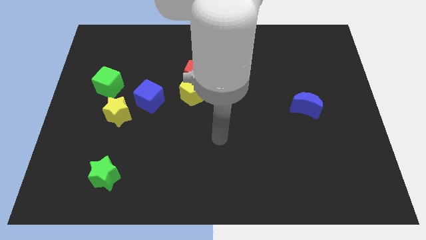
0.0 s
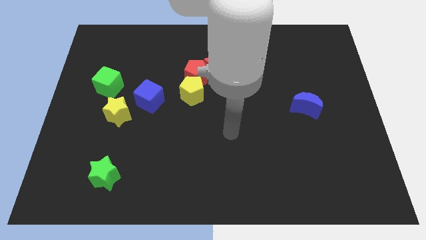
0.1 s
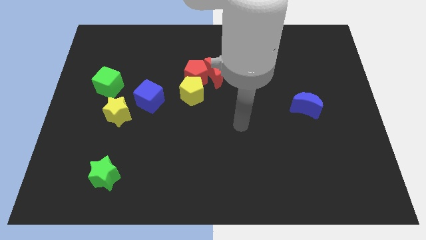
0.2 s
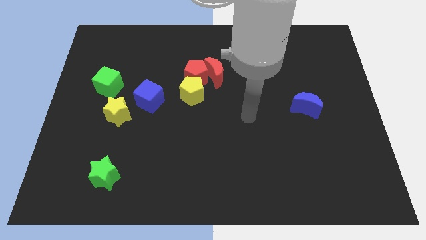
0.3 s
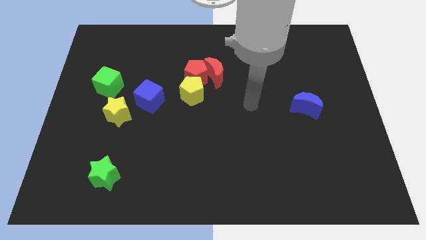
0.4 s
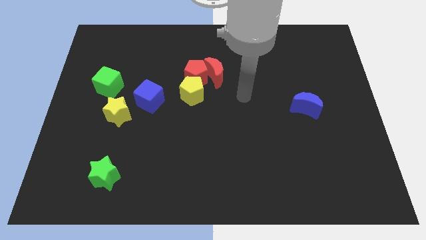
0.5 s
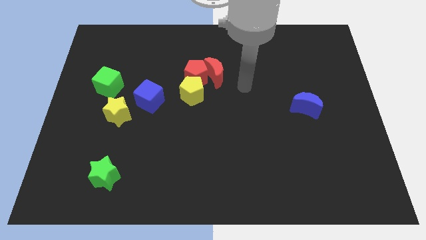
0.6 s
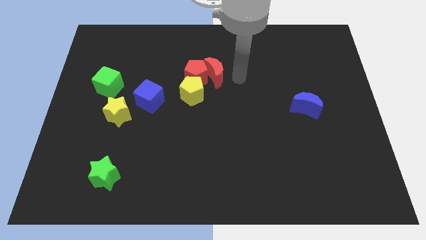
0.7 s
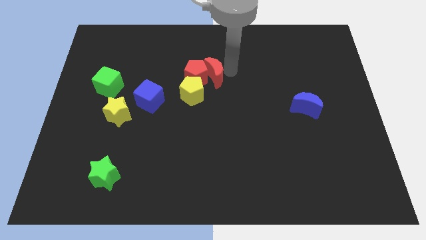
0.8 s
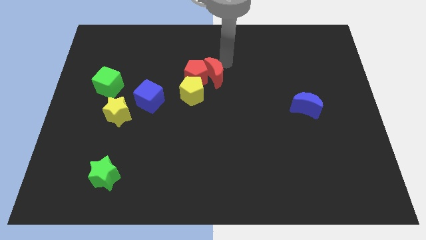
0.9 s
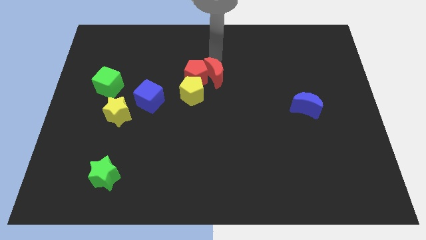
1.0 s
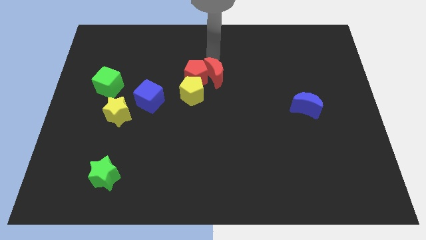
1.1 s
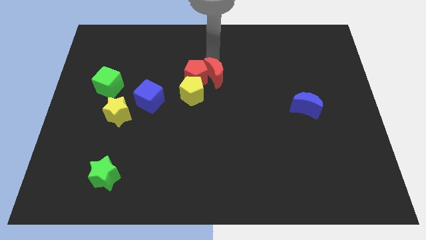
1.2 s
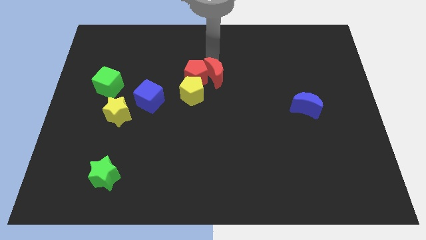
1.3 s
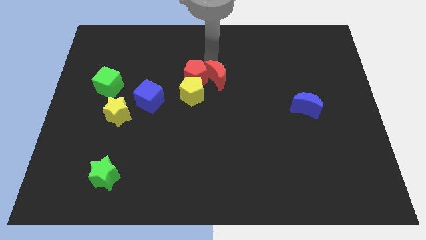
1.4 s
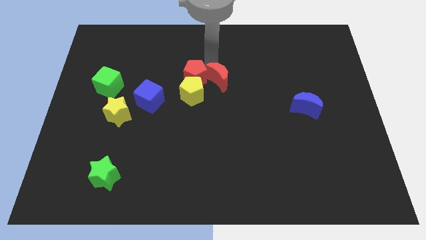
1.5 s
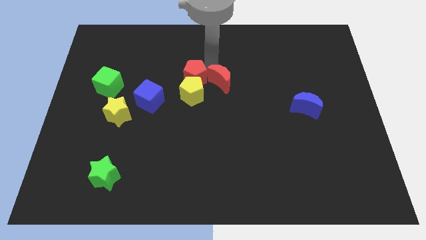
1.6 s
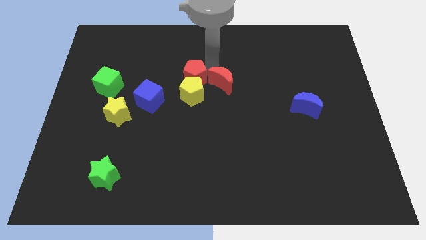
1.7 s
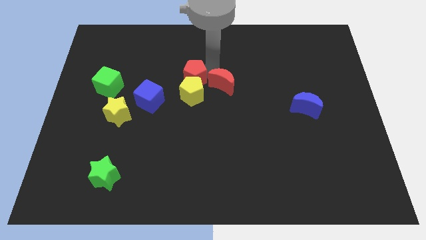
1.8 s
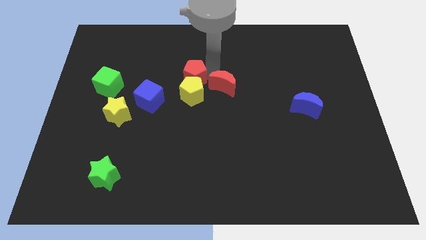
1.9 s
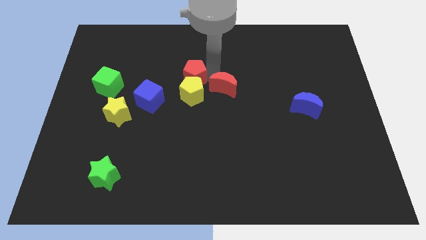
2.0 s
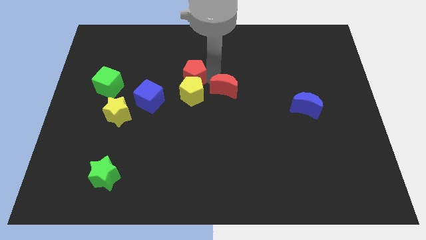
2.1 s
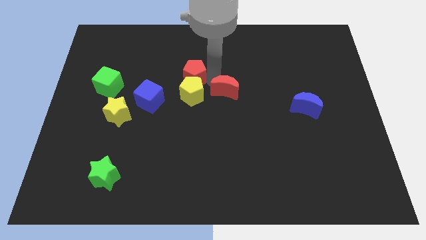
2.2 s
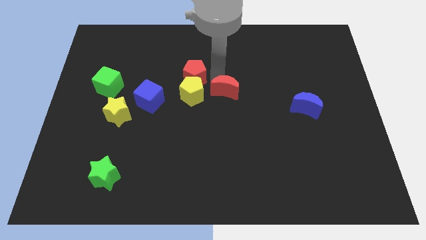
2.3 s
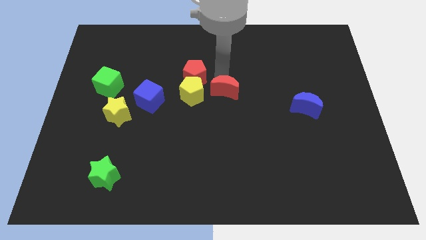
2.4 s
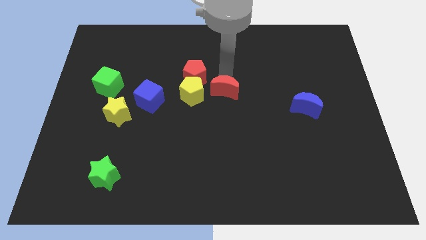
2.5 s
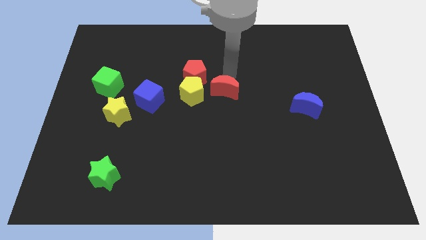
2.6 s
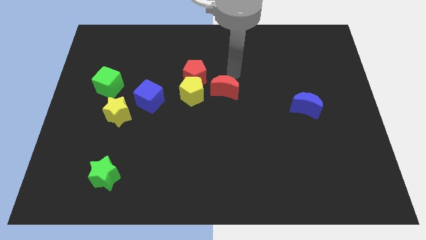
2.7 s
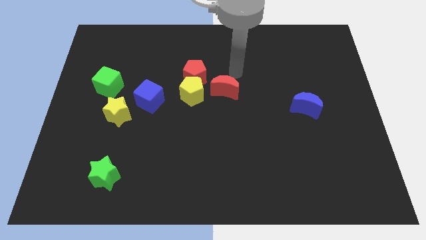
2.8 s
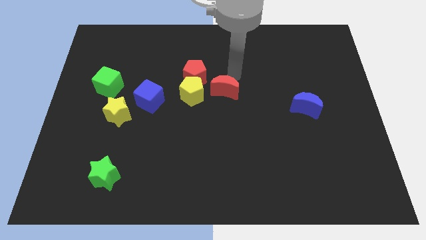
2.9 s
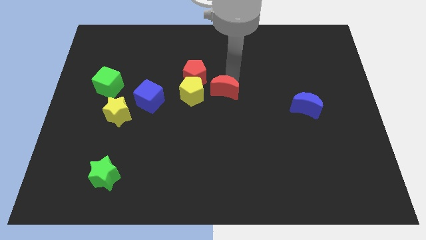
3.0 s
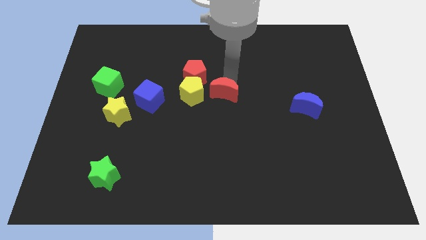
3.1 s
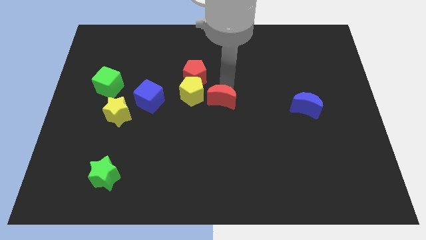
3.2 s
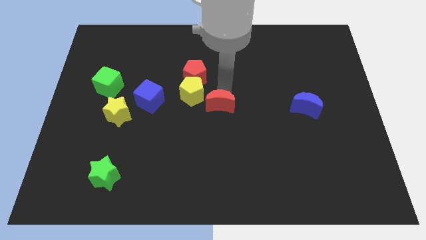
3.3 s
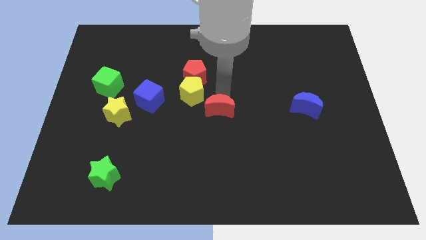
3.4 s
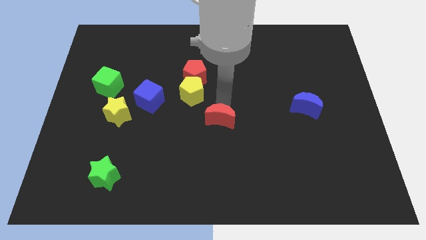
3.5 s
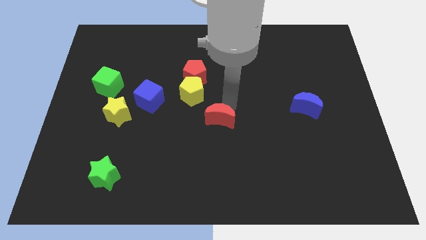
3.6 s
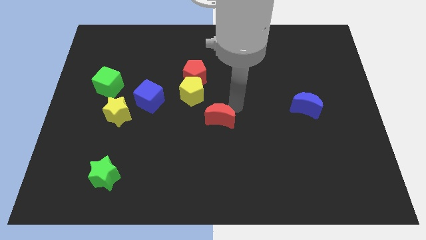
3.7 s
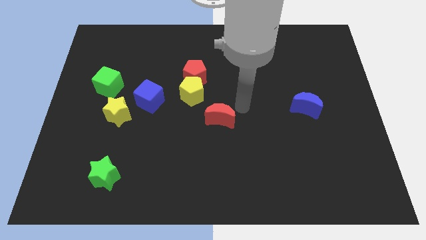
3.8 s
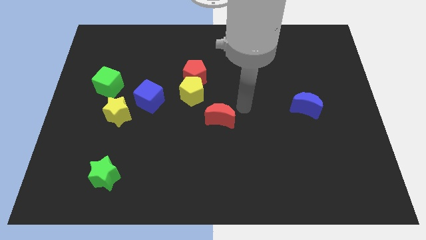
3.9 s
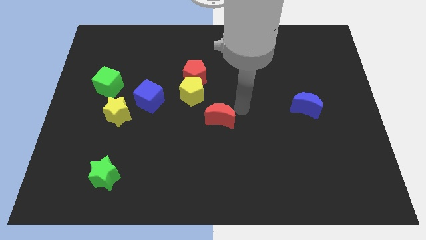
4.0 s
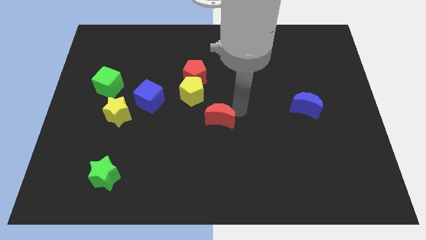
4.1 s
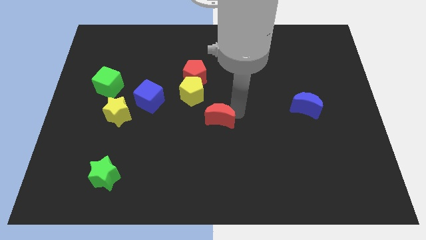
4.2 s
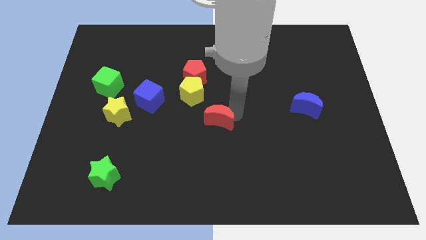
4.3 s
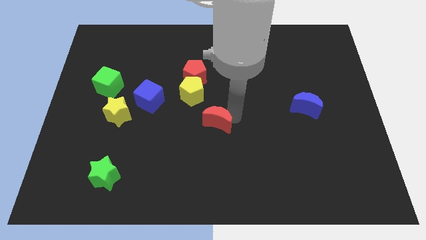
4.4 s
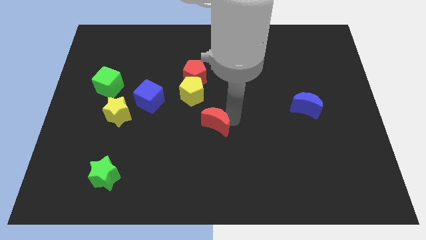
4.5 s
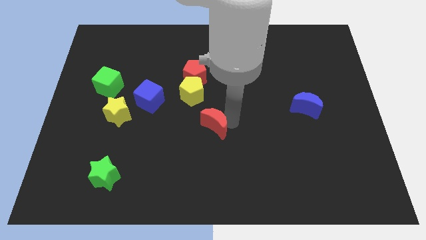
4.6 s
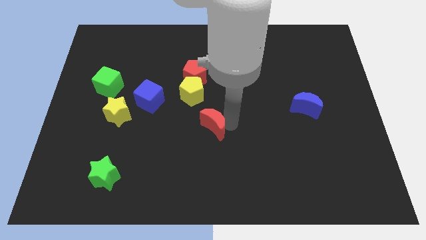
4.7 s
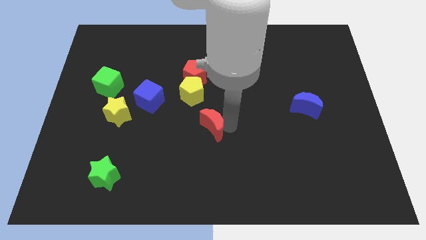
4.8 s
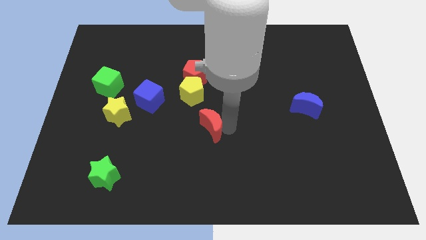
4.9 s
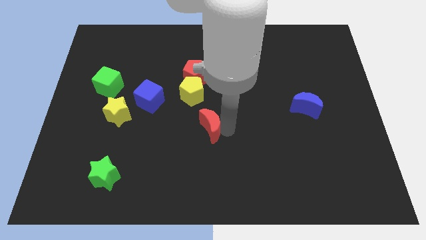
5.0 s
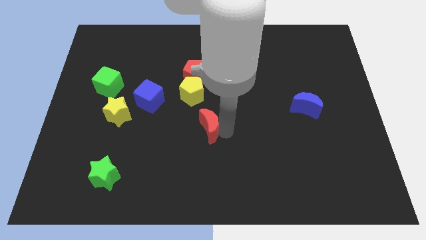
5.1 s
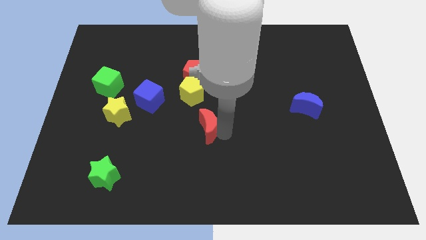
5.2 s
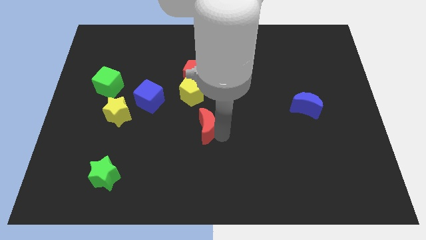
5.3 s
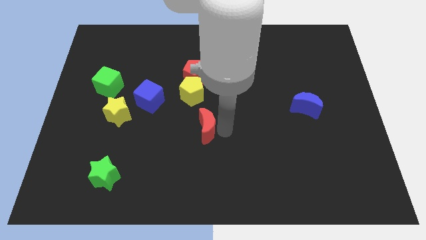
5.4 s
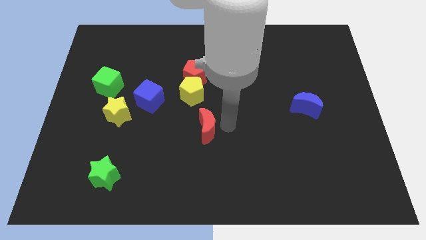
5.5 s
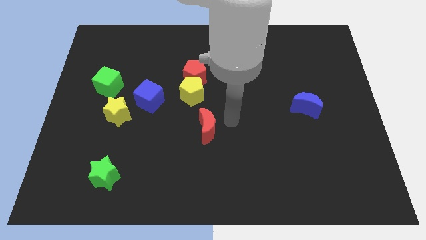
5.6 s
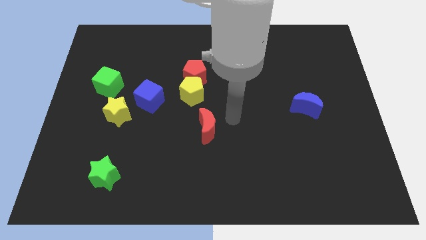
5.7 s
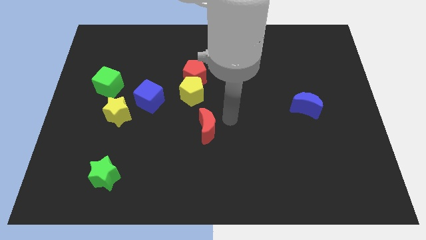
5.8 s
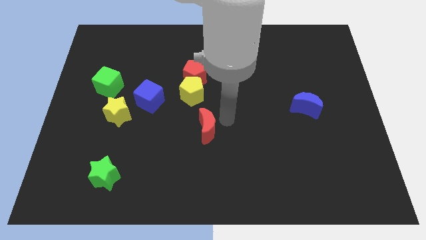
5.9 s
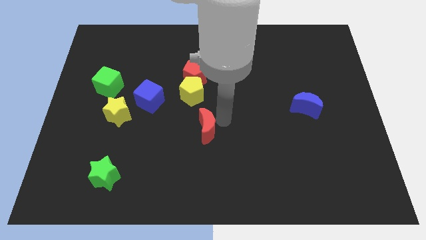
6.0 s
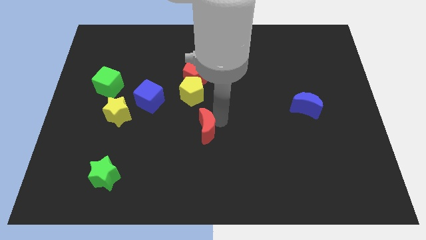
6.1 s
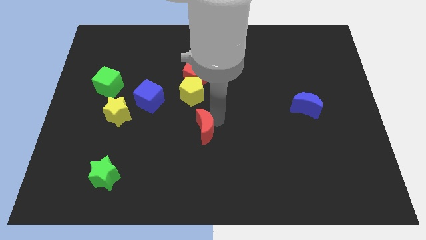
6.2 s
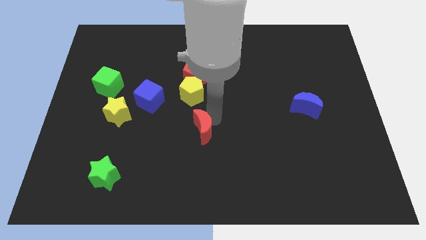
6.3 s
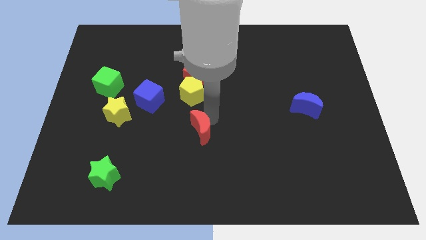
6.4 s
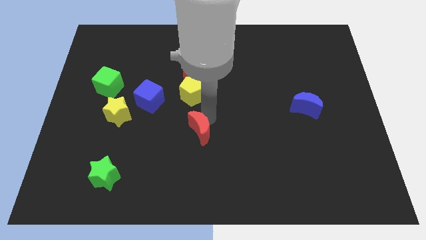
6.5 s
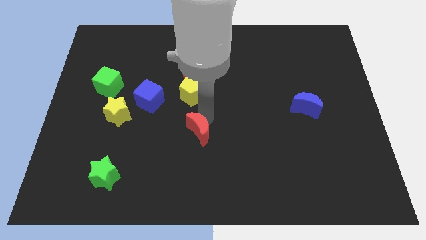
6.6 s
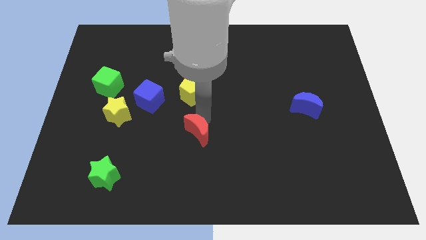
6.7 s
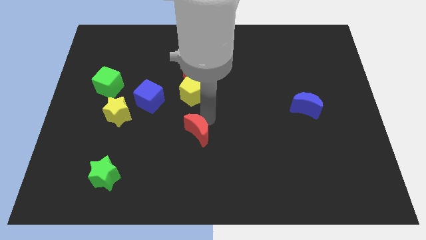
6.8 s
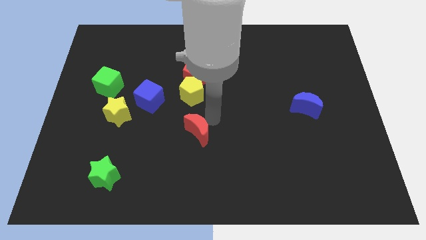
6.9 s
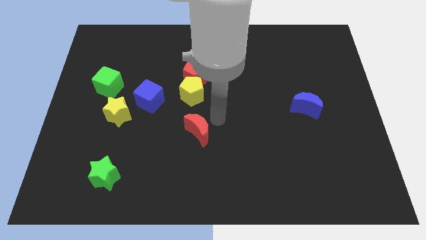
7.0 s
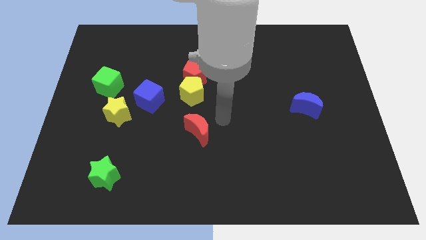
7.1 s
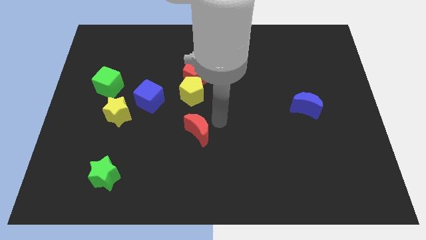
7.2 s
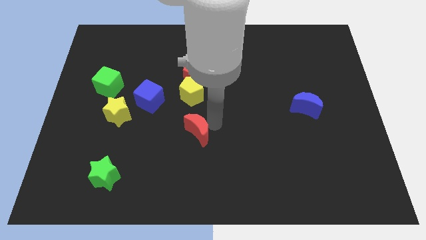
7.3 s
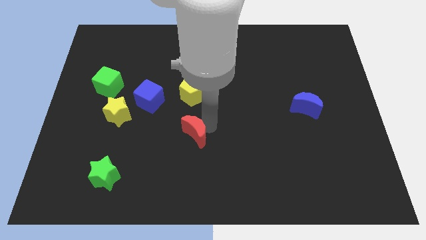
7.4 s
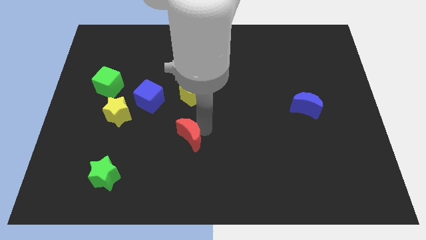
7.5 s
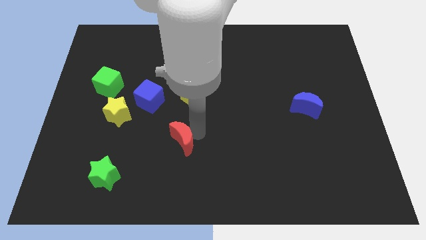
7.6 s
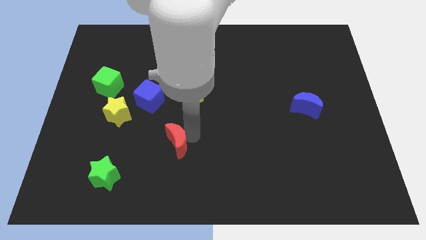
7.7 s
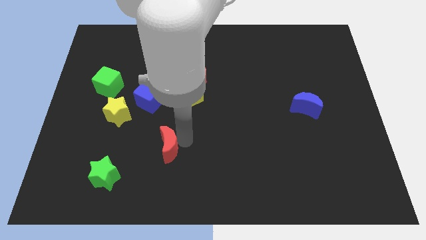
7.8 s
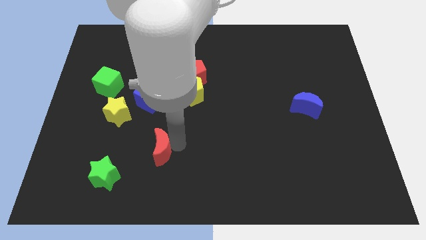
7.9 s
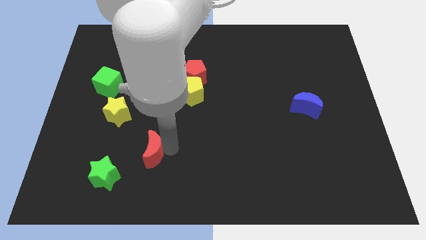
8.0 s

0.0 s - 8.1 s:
slide the red moon diagonally up and to the right of the green star
